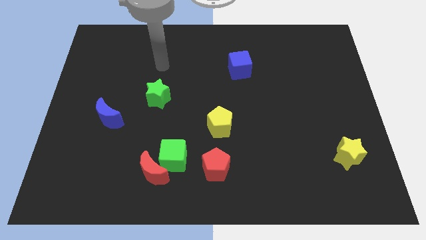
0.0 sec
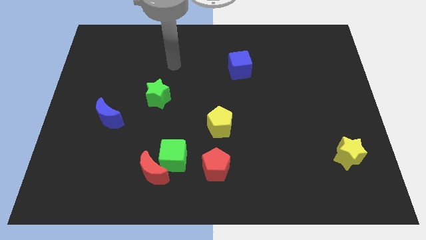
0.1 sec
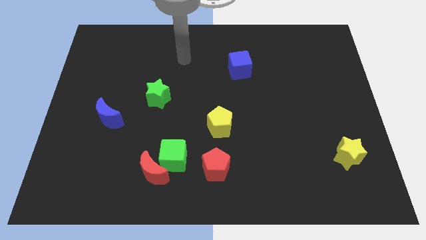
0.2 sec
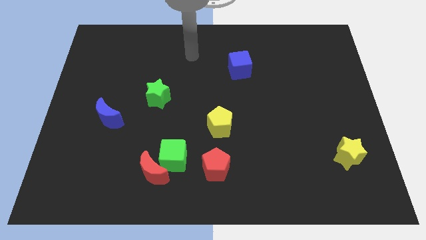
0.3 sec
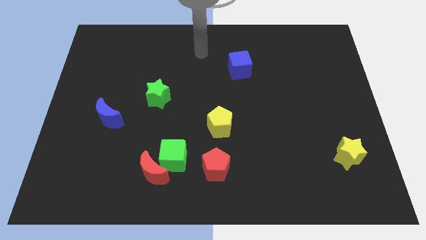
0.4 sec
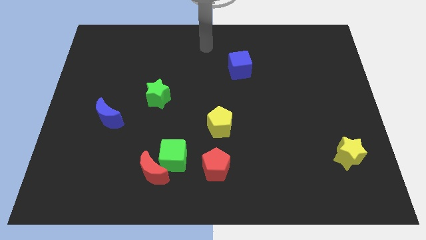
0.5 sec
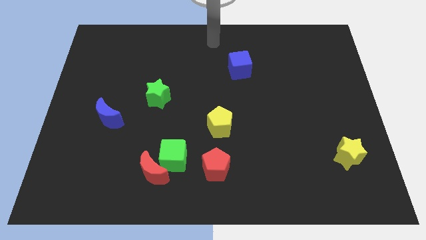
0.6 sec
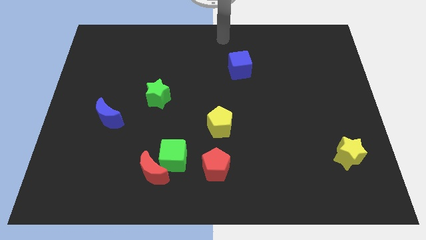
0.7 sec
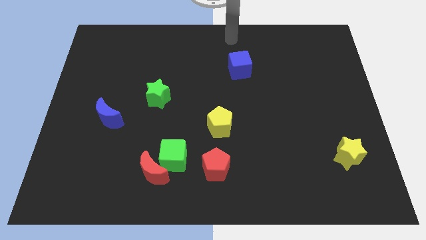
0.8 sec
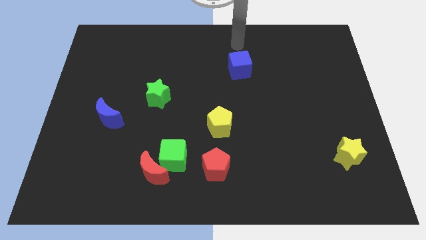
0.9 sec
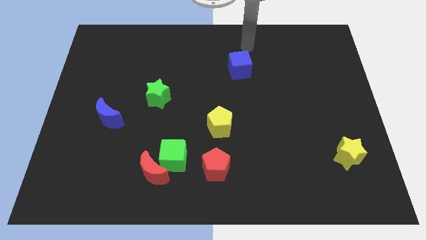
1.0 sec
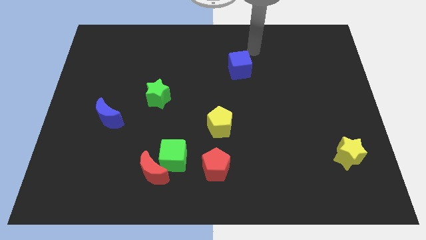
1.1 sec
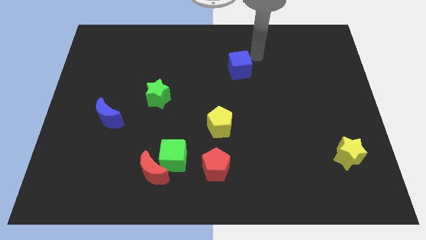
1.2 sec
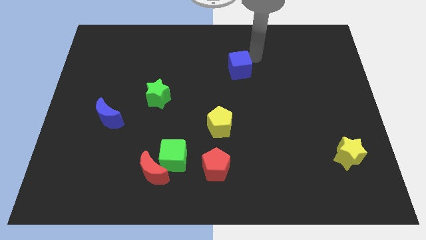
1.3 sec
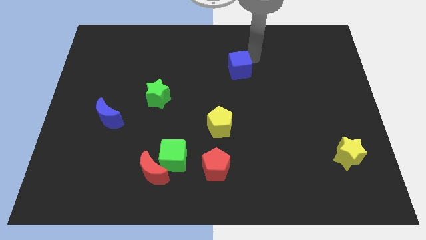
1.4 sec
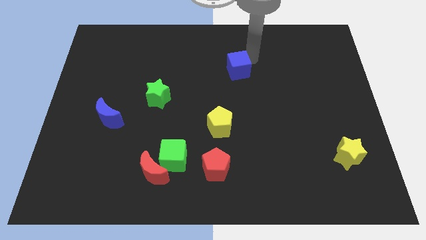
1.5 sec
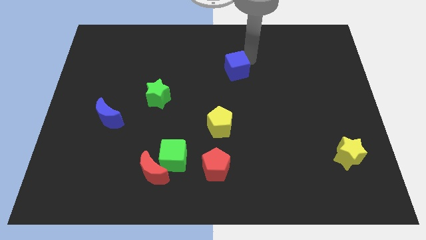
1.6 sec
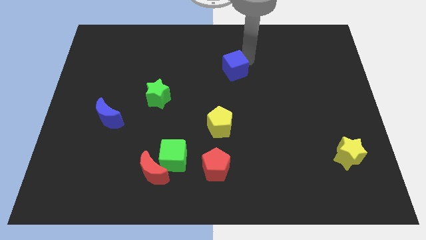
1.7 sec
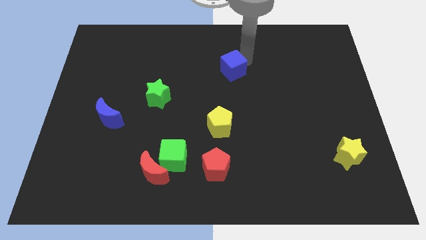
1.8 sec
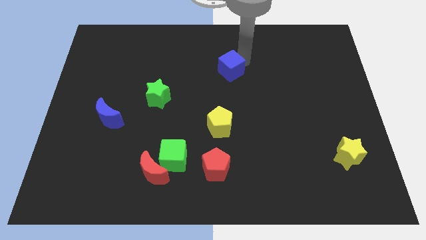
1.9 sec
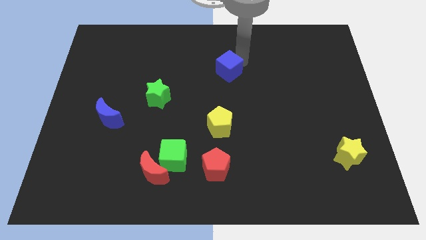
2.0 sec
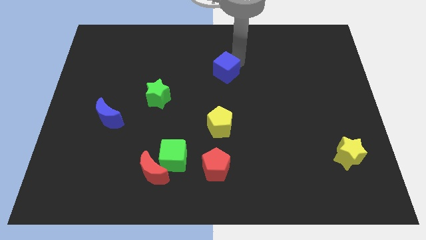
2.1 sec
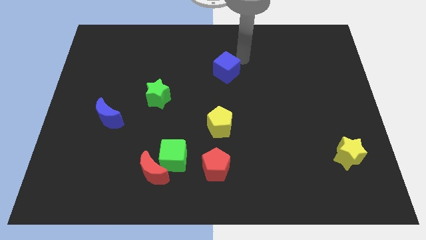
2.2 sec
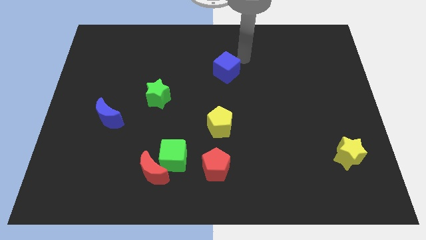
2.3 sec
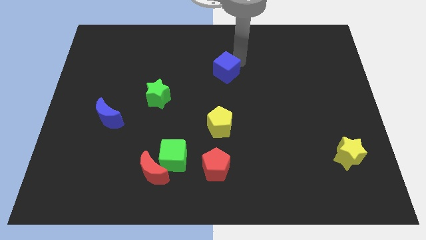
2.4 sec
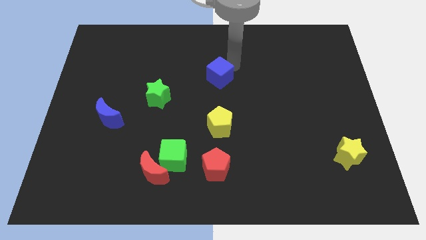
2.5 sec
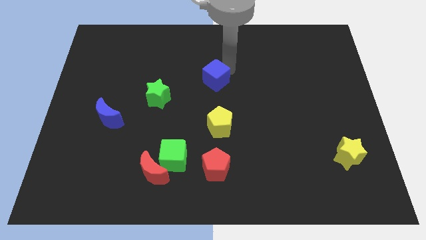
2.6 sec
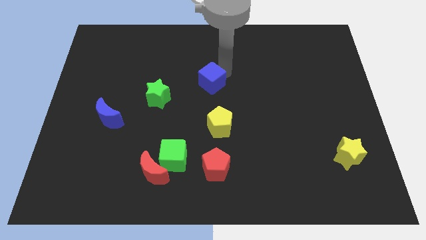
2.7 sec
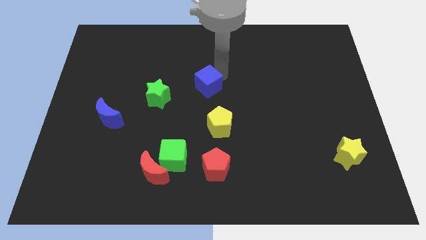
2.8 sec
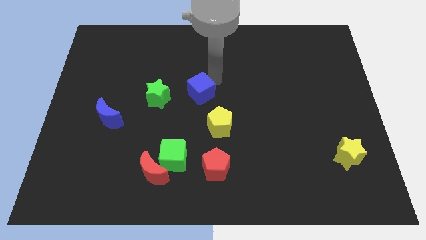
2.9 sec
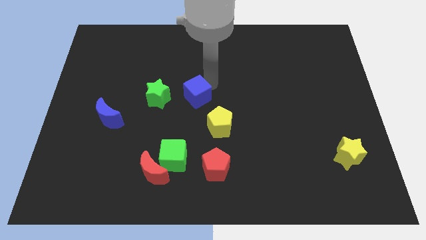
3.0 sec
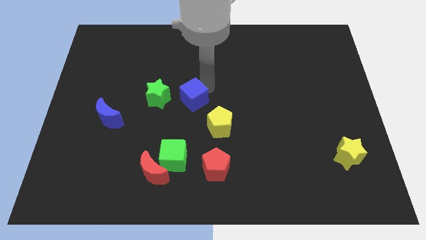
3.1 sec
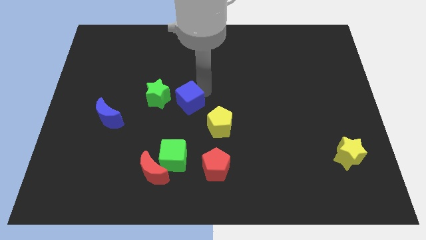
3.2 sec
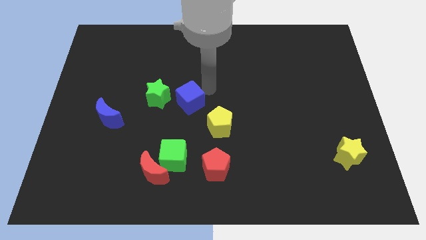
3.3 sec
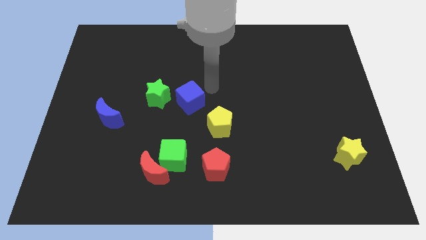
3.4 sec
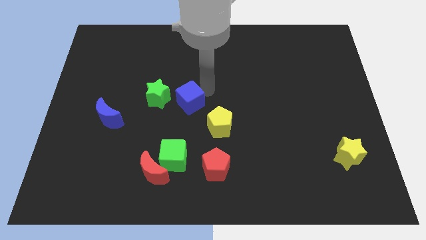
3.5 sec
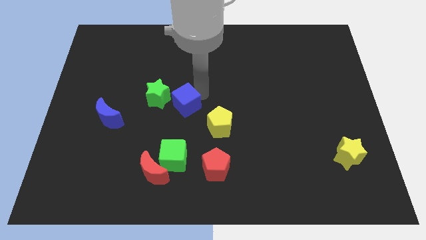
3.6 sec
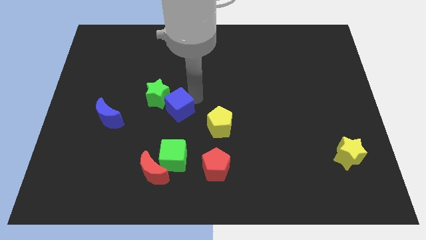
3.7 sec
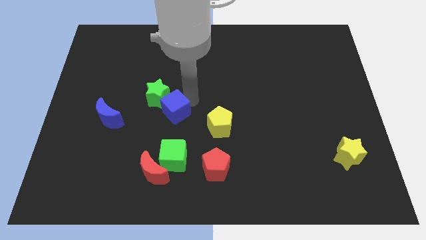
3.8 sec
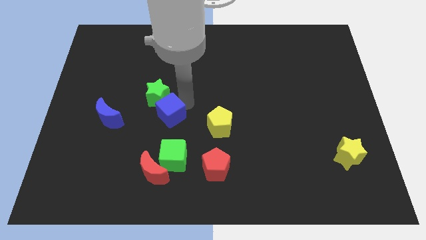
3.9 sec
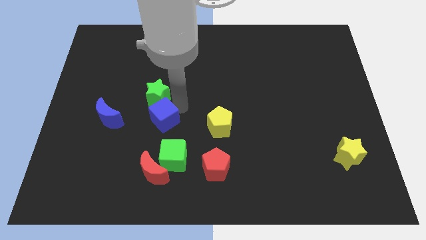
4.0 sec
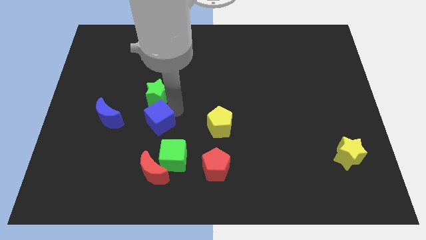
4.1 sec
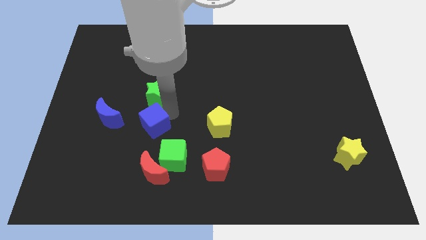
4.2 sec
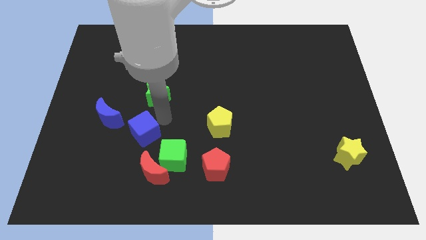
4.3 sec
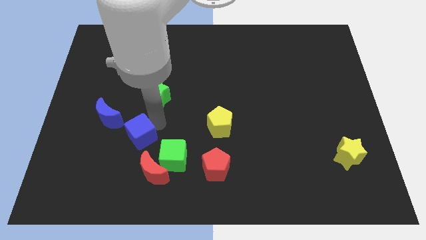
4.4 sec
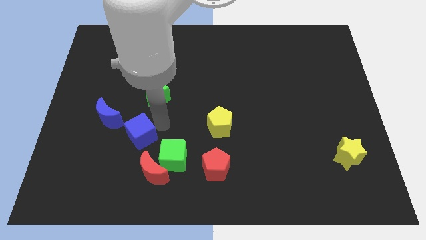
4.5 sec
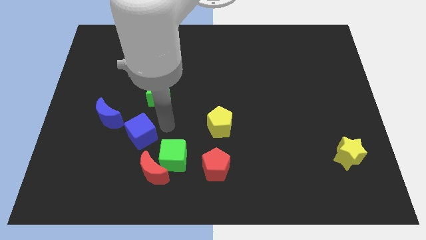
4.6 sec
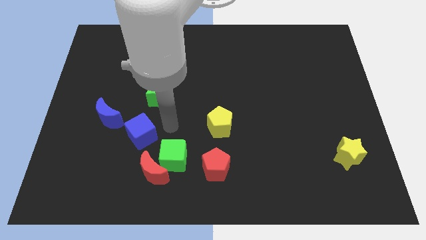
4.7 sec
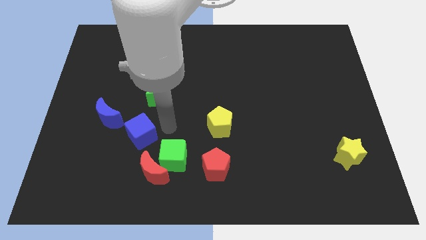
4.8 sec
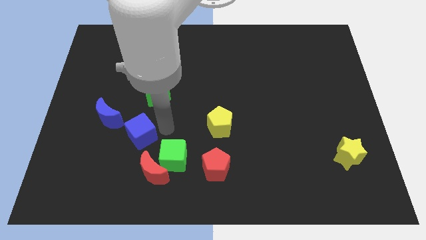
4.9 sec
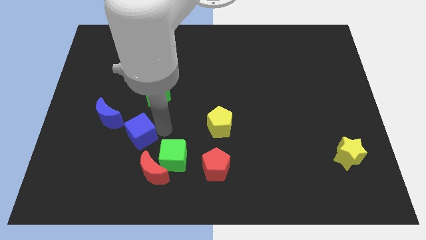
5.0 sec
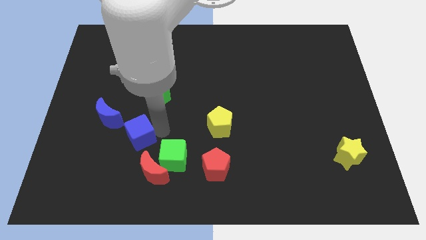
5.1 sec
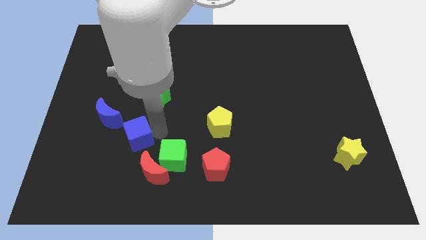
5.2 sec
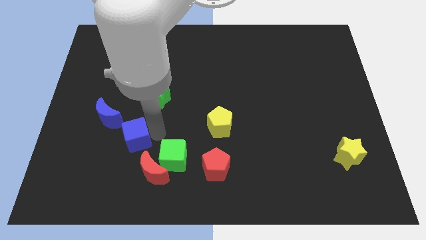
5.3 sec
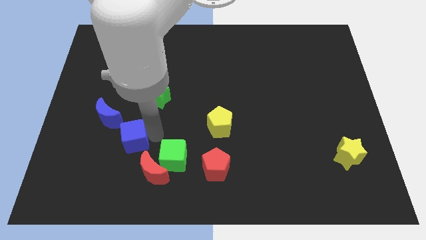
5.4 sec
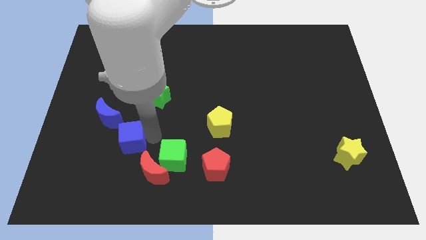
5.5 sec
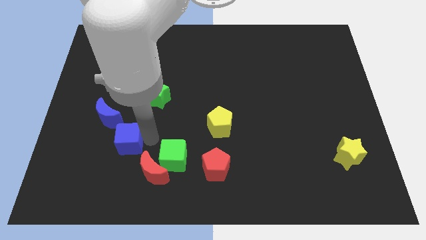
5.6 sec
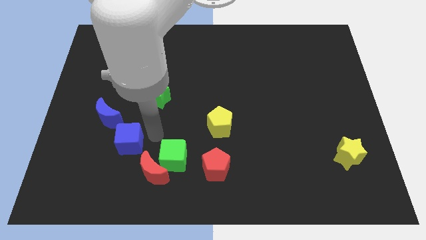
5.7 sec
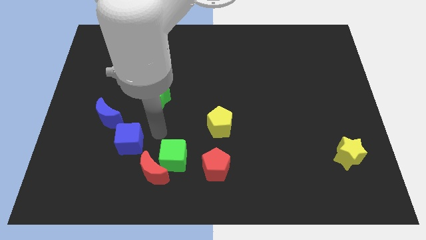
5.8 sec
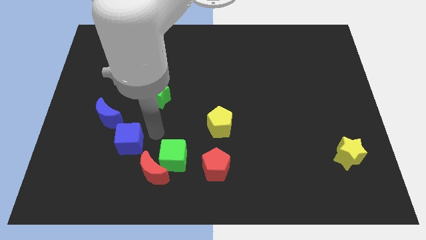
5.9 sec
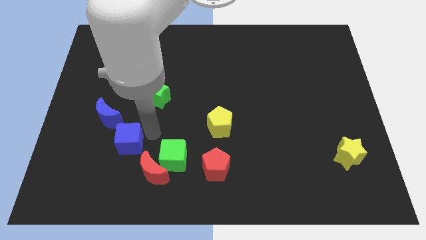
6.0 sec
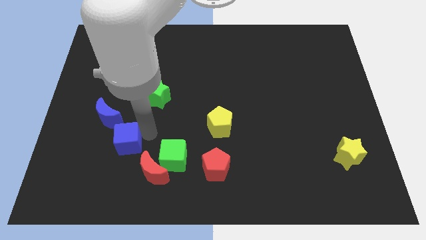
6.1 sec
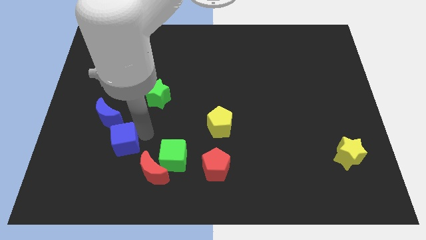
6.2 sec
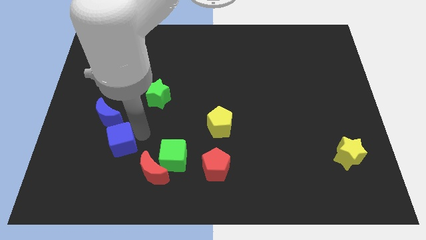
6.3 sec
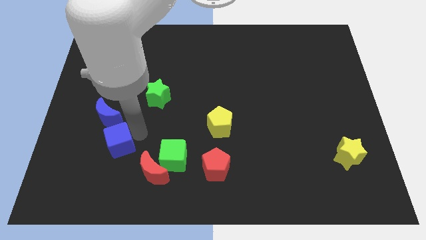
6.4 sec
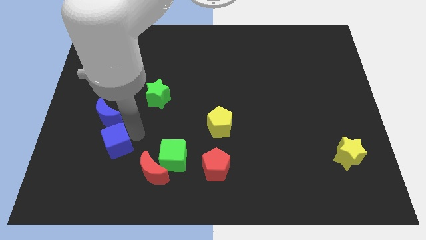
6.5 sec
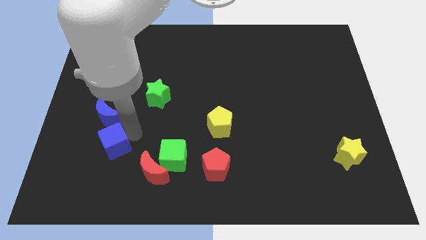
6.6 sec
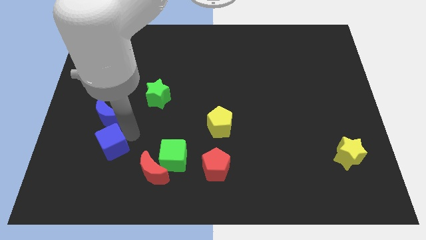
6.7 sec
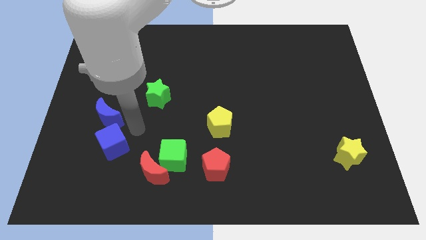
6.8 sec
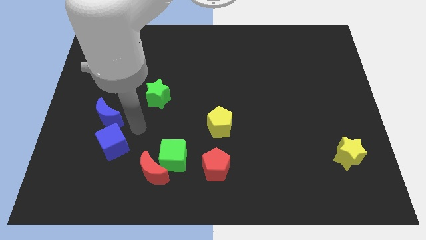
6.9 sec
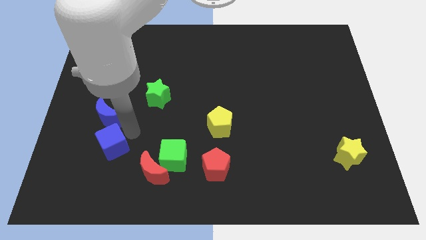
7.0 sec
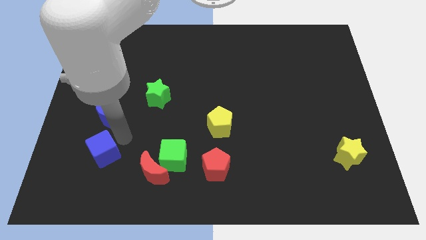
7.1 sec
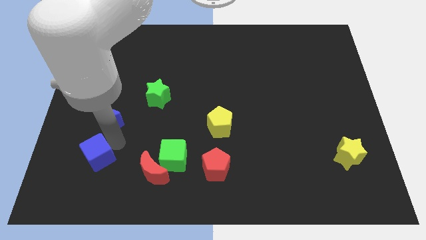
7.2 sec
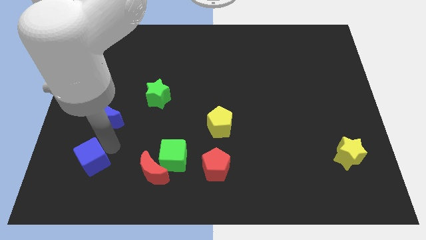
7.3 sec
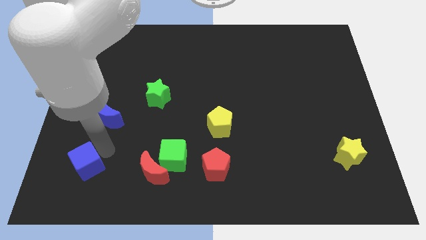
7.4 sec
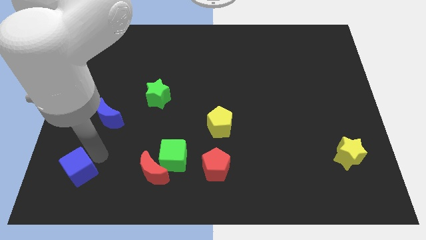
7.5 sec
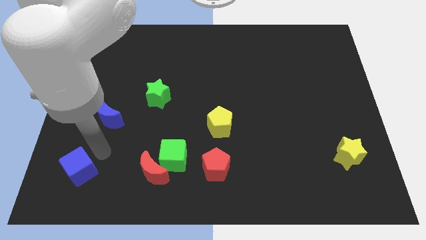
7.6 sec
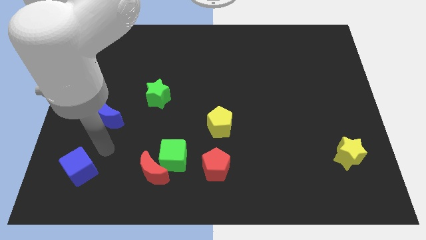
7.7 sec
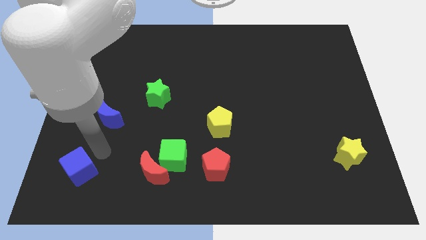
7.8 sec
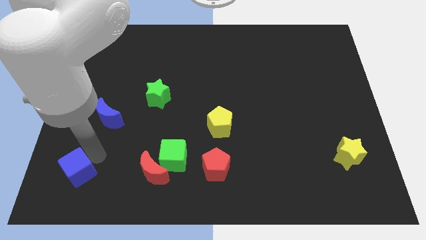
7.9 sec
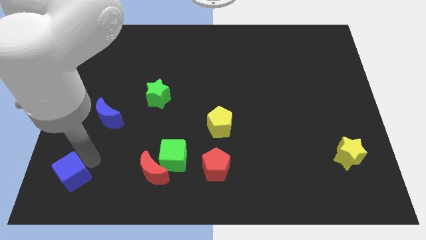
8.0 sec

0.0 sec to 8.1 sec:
slide the blue cube to the lower left corner
